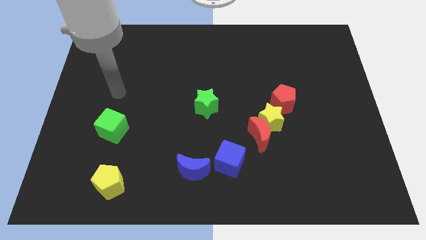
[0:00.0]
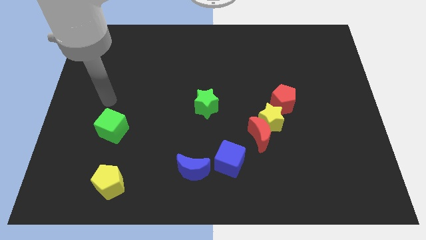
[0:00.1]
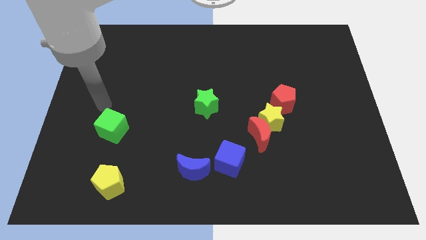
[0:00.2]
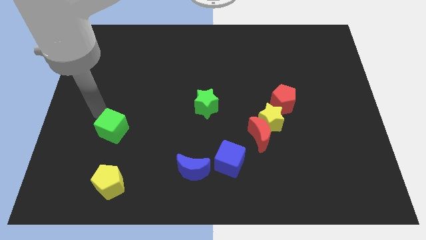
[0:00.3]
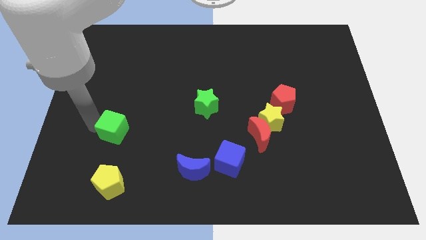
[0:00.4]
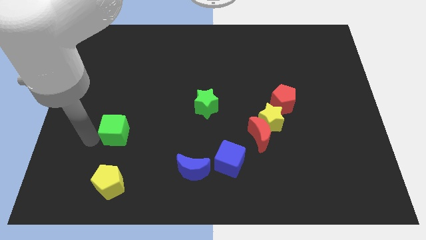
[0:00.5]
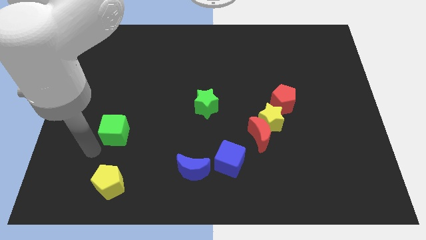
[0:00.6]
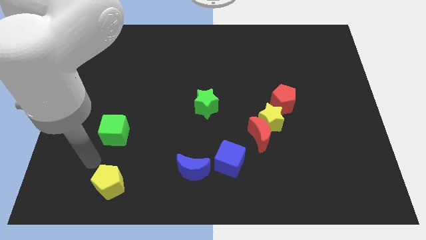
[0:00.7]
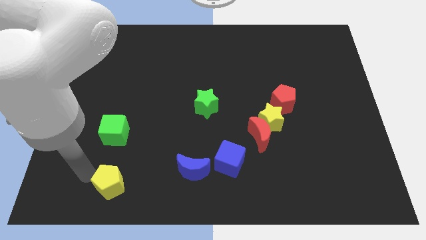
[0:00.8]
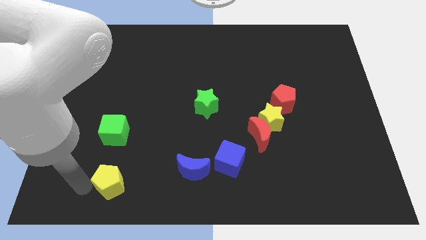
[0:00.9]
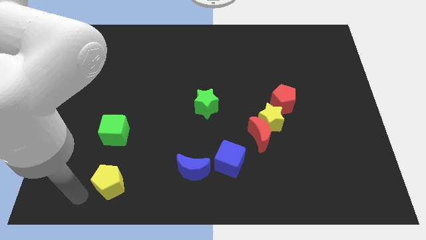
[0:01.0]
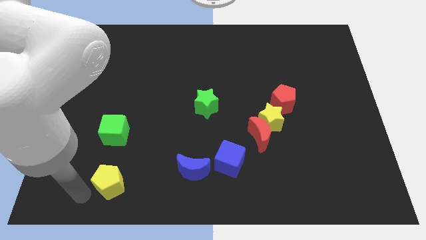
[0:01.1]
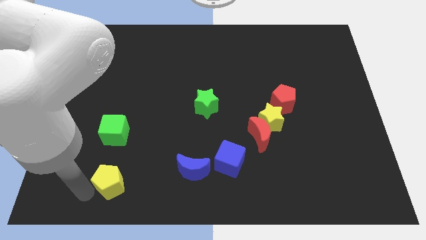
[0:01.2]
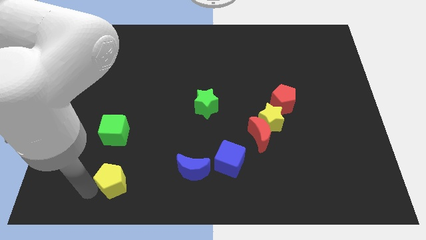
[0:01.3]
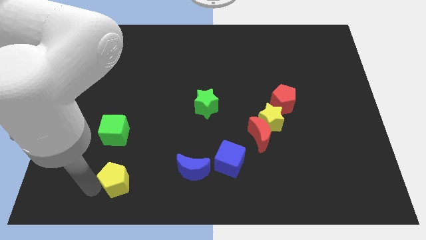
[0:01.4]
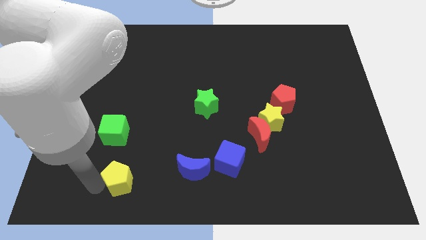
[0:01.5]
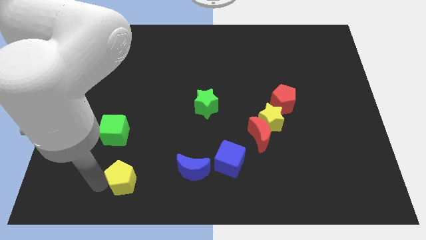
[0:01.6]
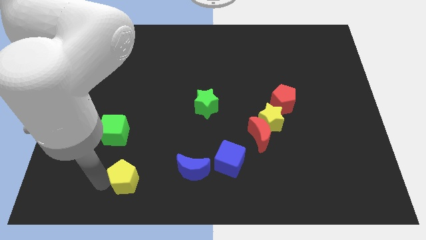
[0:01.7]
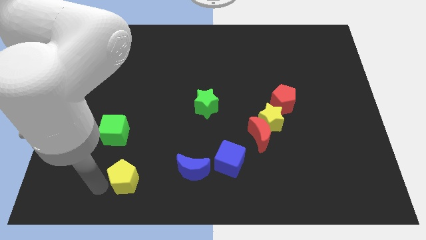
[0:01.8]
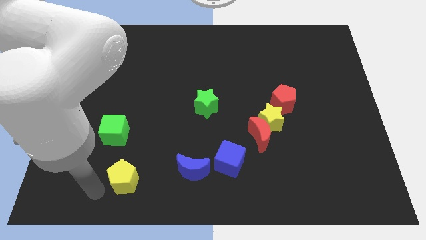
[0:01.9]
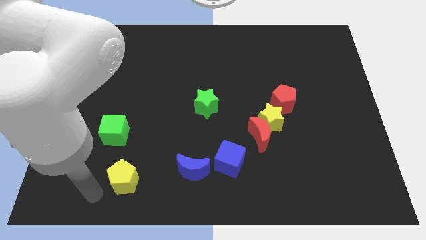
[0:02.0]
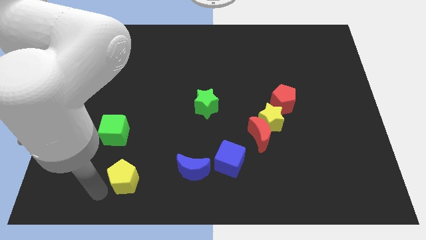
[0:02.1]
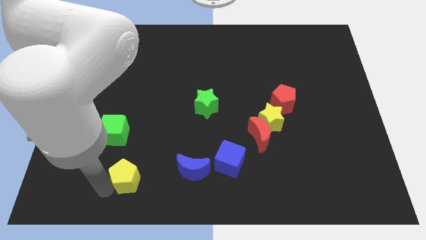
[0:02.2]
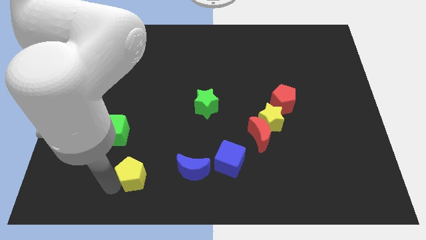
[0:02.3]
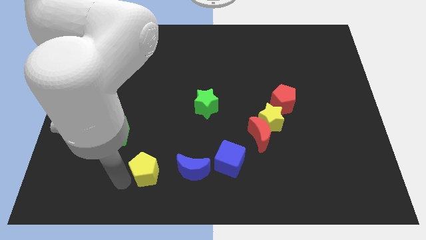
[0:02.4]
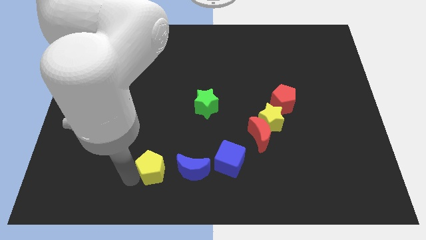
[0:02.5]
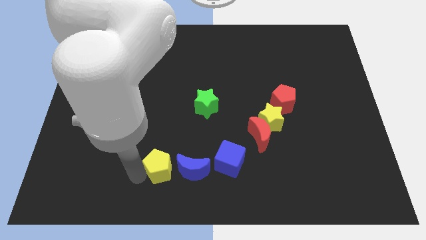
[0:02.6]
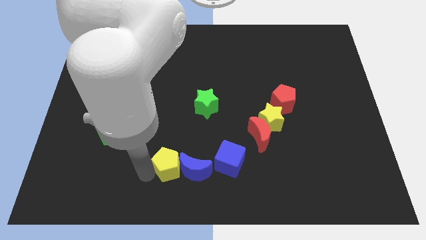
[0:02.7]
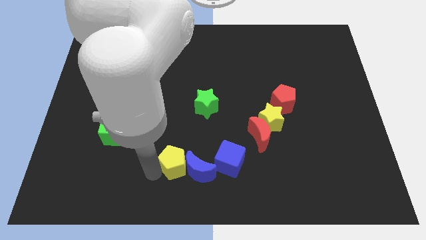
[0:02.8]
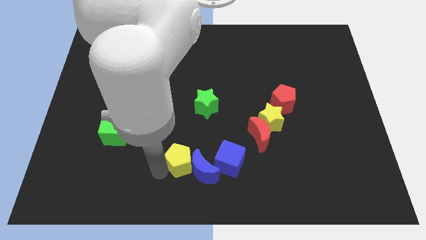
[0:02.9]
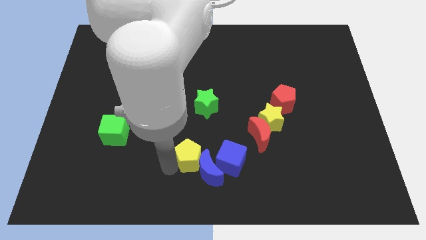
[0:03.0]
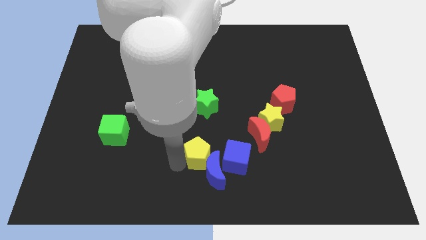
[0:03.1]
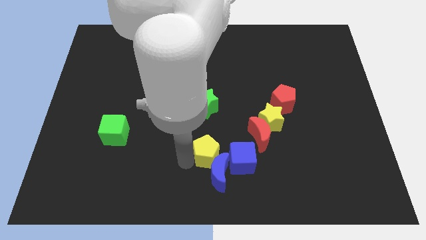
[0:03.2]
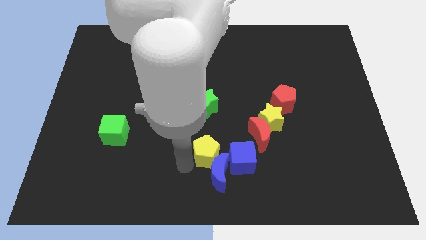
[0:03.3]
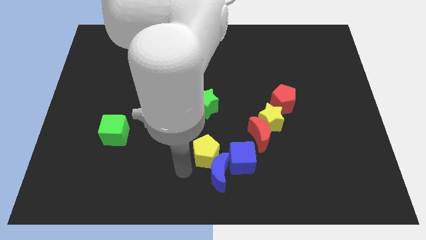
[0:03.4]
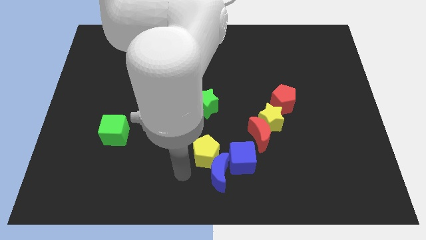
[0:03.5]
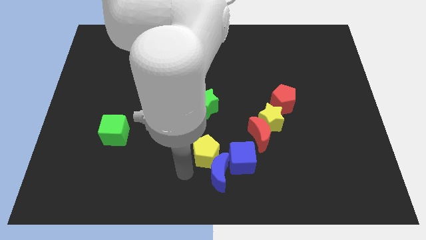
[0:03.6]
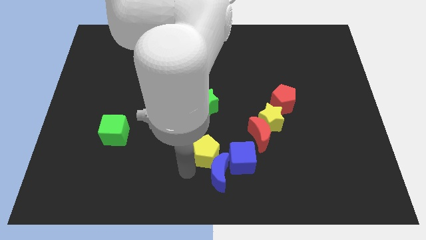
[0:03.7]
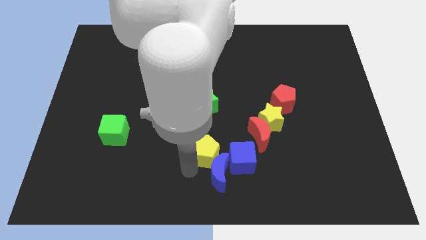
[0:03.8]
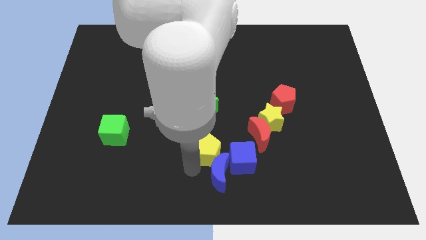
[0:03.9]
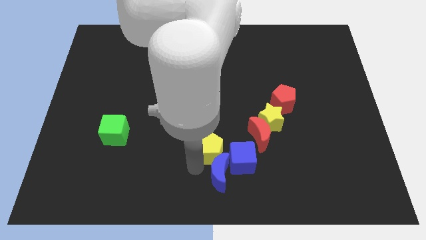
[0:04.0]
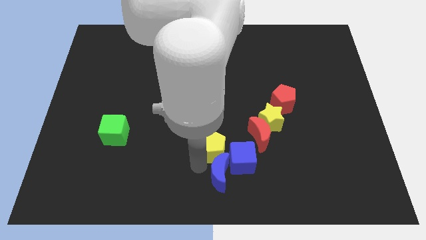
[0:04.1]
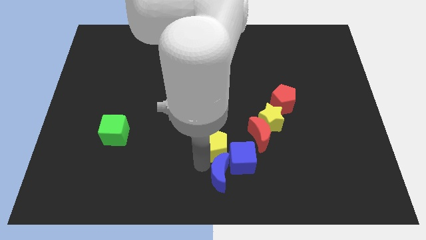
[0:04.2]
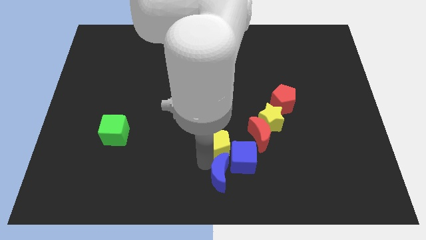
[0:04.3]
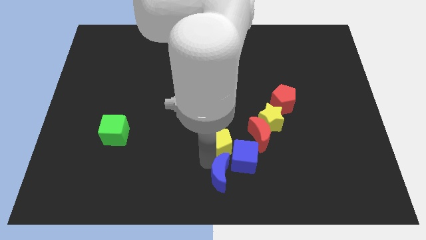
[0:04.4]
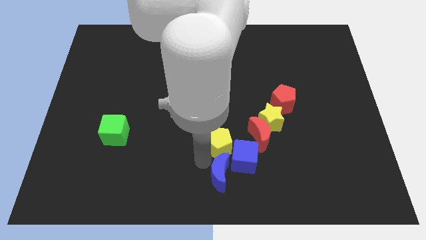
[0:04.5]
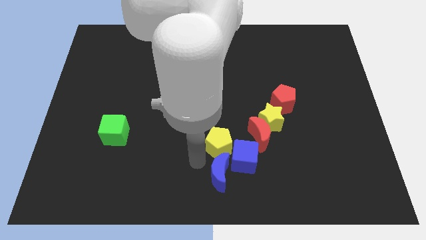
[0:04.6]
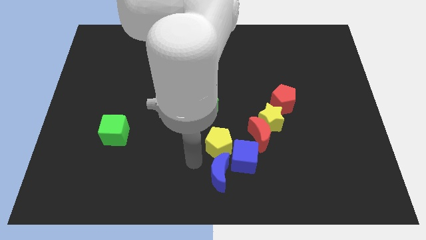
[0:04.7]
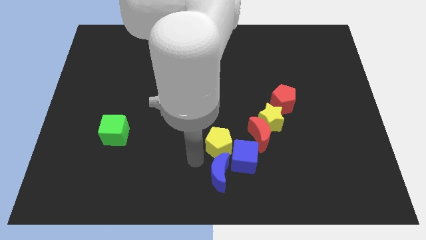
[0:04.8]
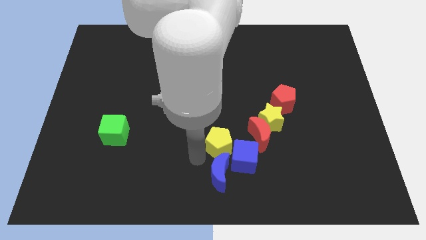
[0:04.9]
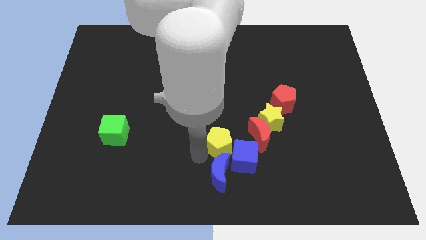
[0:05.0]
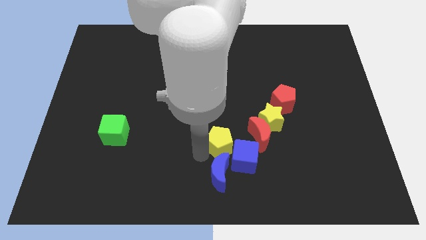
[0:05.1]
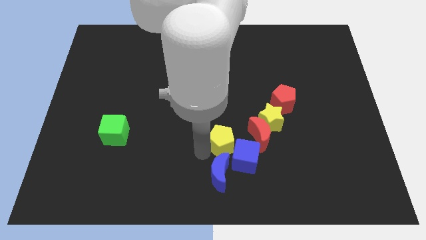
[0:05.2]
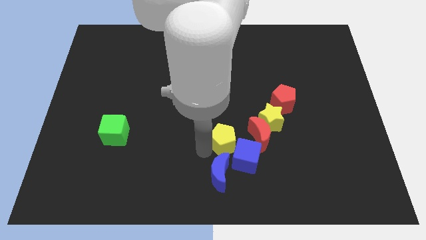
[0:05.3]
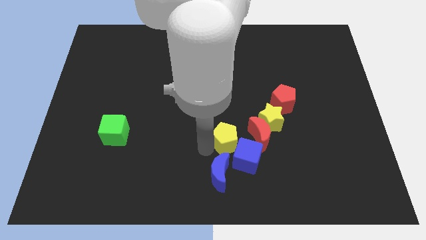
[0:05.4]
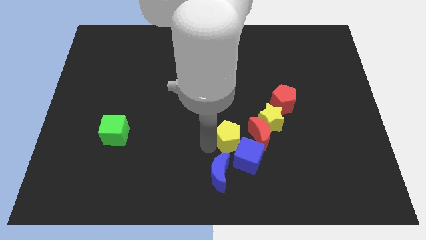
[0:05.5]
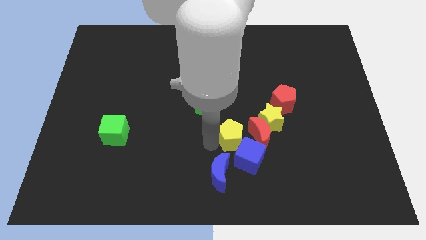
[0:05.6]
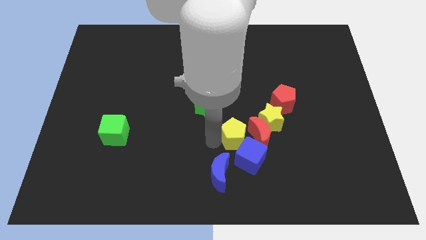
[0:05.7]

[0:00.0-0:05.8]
push the yellow pentagon next to the red moon
